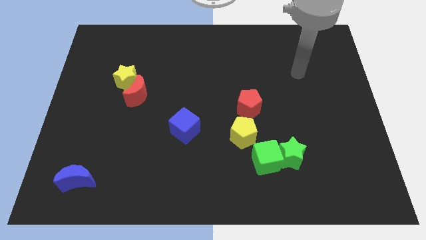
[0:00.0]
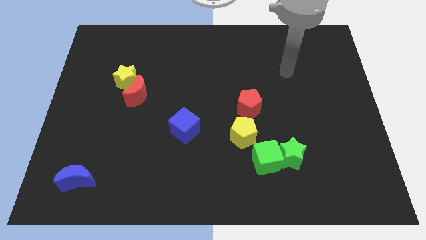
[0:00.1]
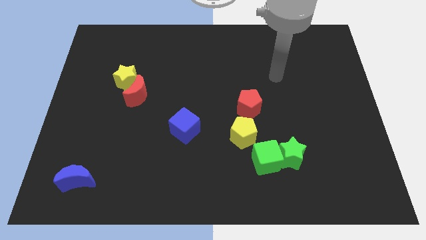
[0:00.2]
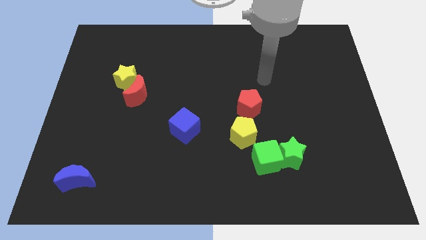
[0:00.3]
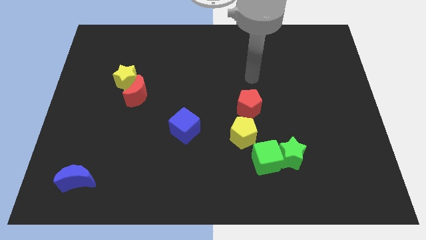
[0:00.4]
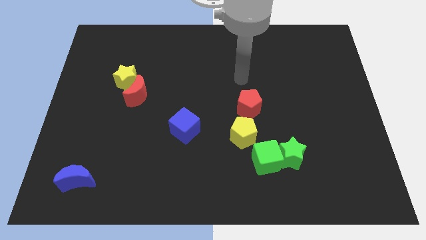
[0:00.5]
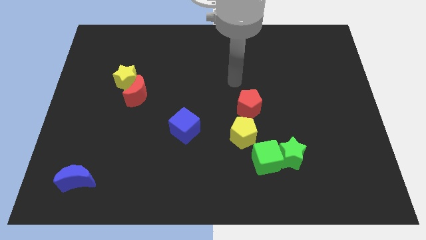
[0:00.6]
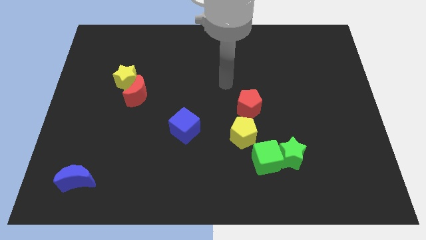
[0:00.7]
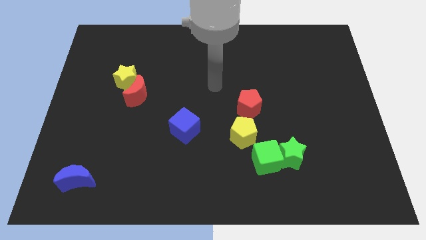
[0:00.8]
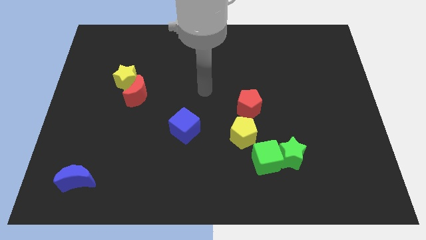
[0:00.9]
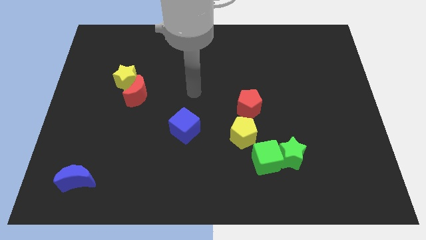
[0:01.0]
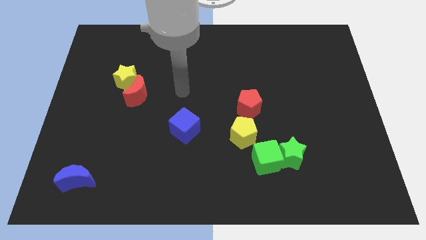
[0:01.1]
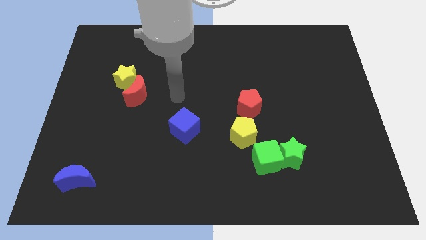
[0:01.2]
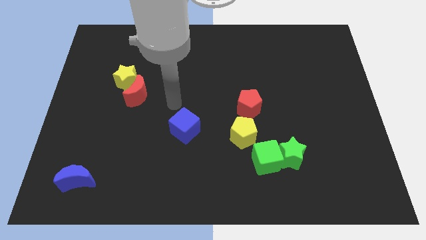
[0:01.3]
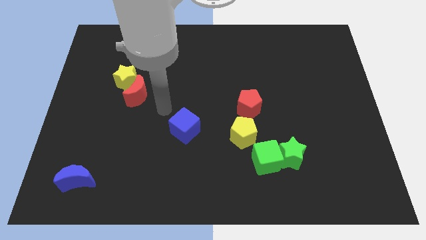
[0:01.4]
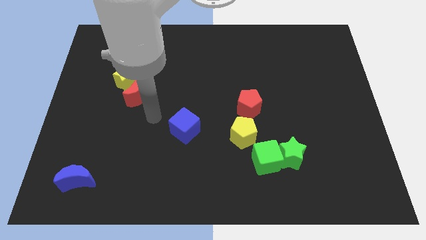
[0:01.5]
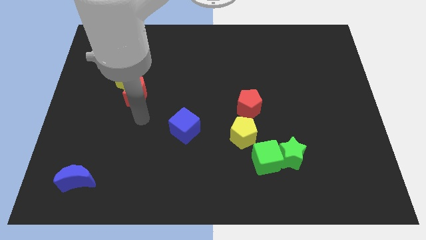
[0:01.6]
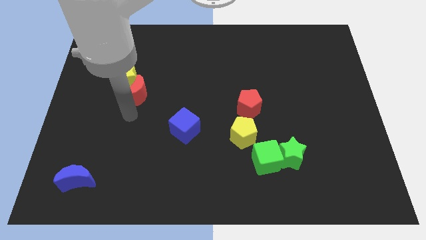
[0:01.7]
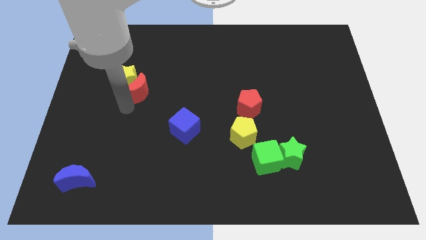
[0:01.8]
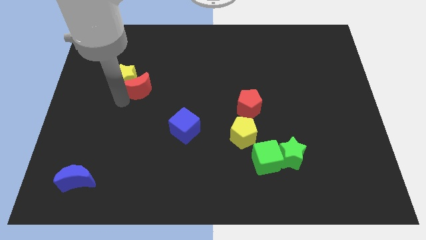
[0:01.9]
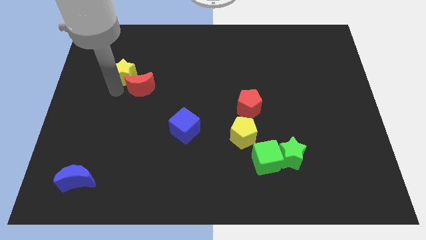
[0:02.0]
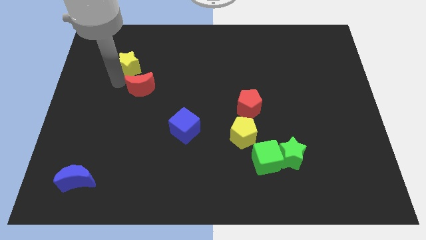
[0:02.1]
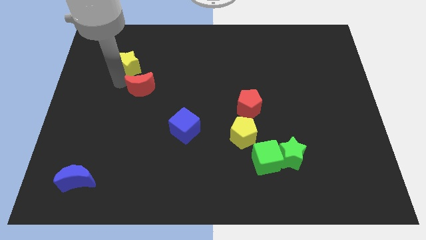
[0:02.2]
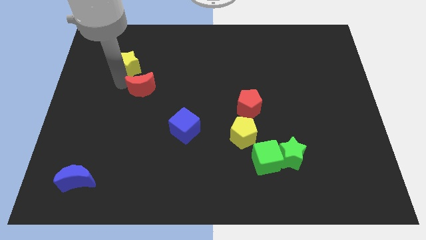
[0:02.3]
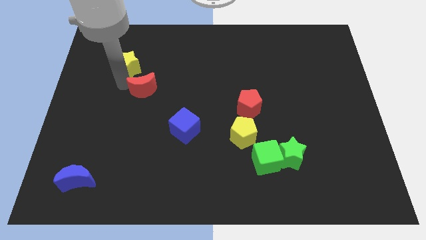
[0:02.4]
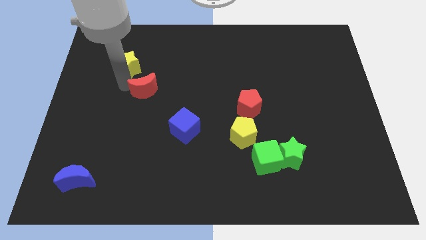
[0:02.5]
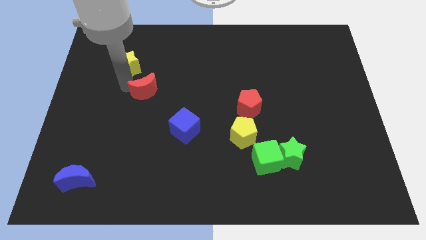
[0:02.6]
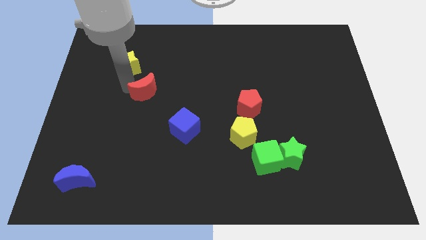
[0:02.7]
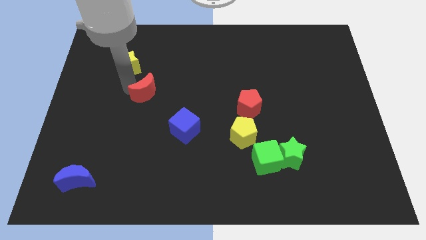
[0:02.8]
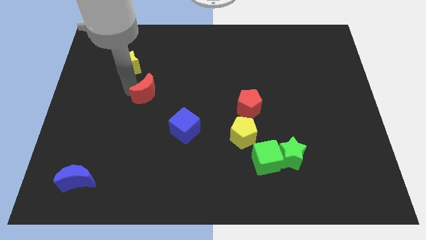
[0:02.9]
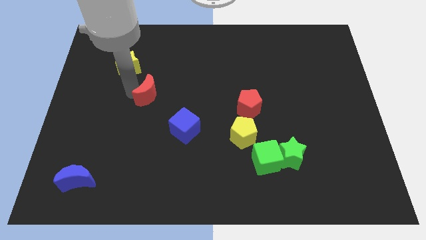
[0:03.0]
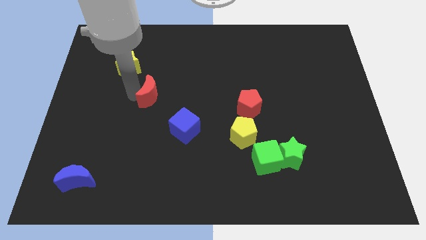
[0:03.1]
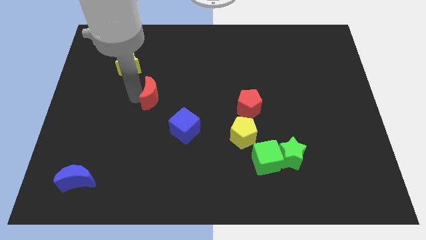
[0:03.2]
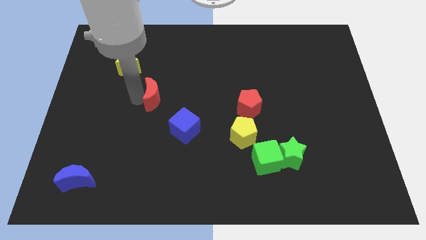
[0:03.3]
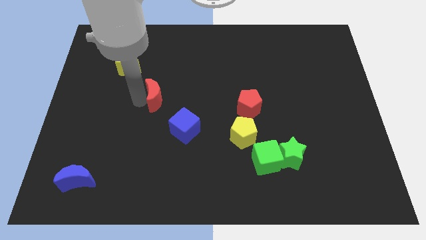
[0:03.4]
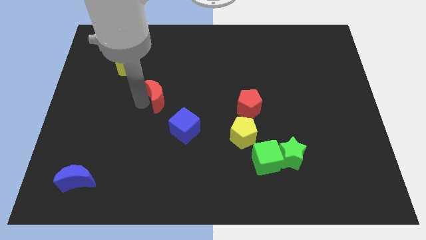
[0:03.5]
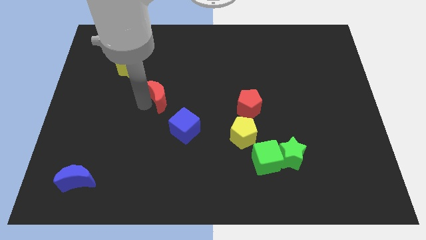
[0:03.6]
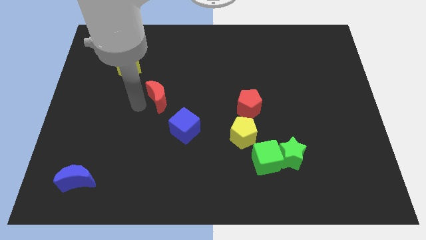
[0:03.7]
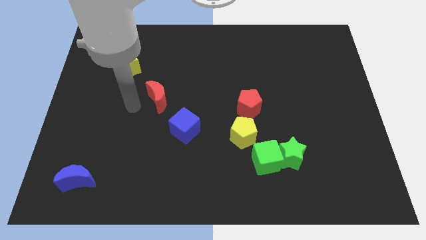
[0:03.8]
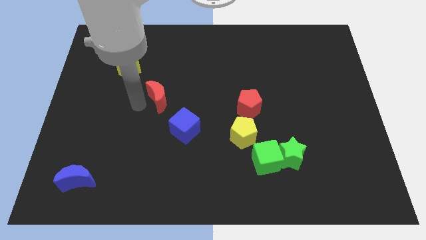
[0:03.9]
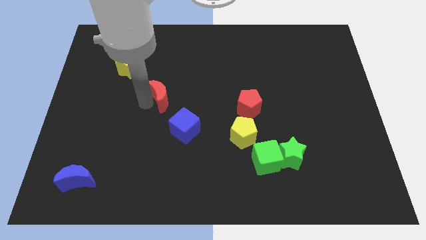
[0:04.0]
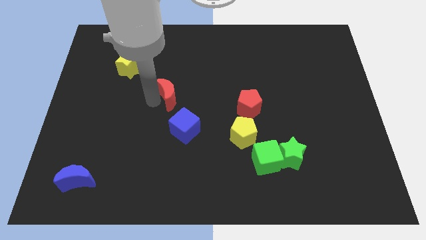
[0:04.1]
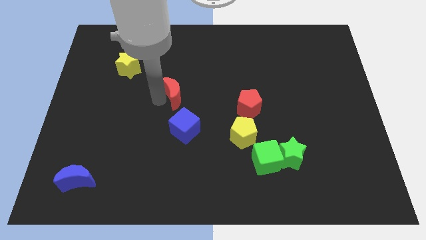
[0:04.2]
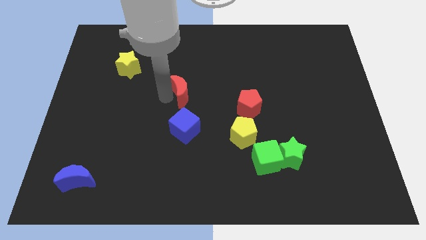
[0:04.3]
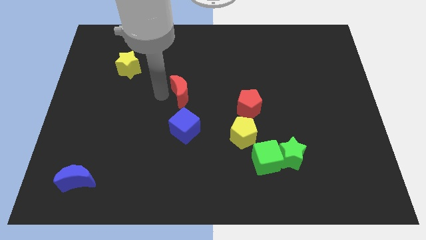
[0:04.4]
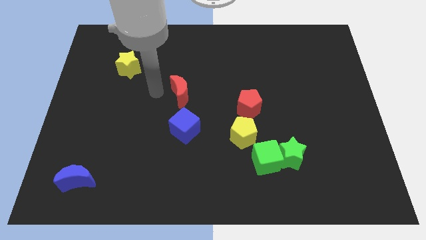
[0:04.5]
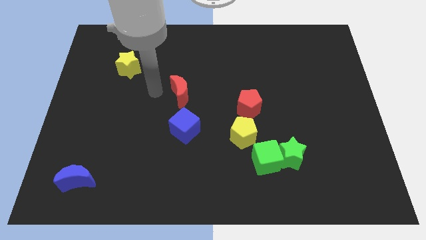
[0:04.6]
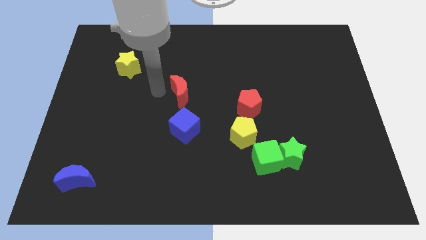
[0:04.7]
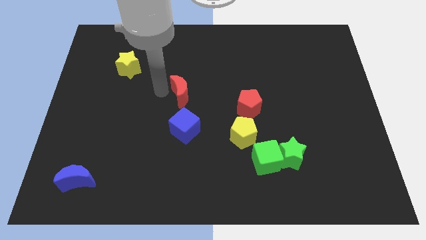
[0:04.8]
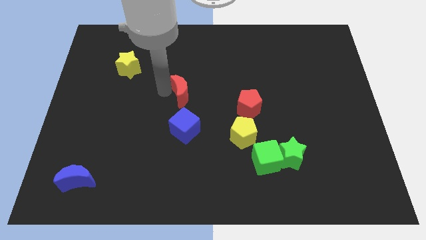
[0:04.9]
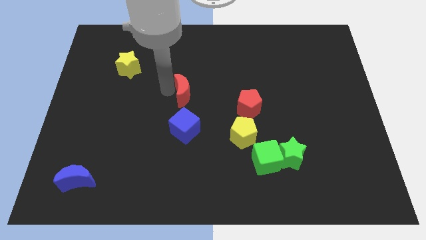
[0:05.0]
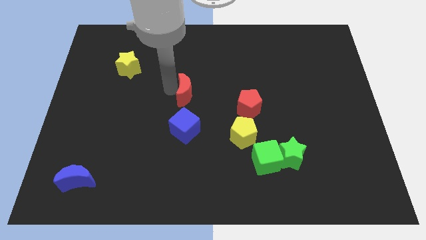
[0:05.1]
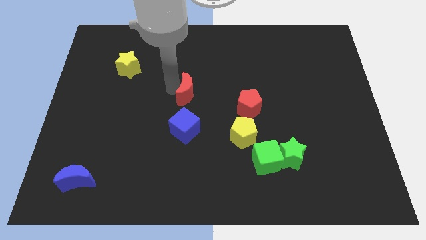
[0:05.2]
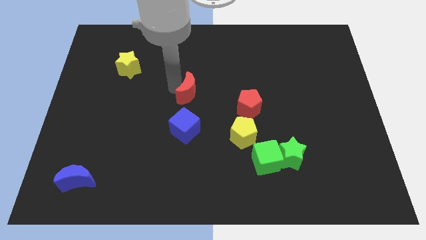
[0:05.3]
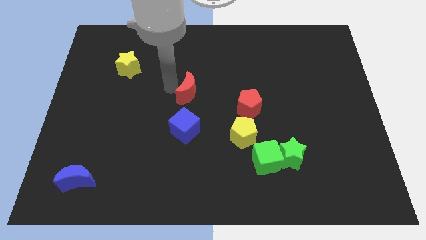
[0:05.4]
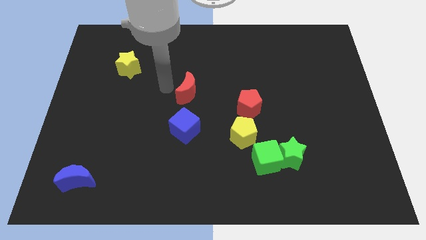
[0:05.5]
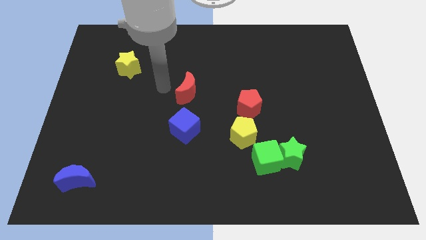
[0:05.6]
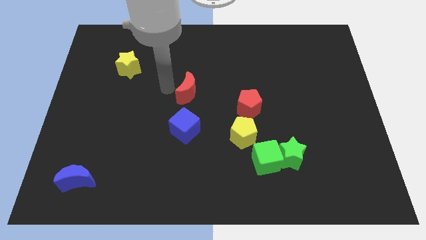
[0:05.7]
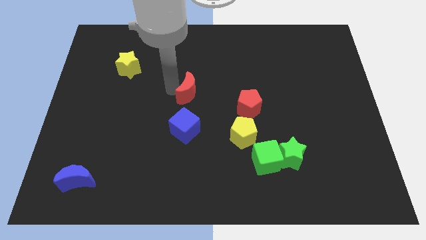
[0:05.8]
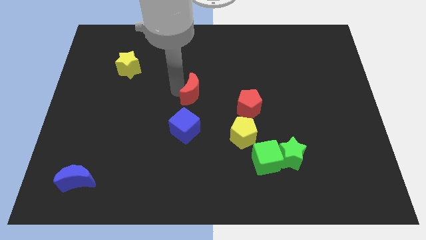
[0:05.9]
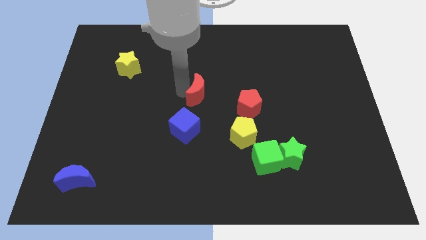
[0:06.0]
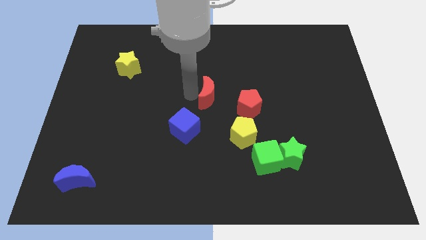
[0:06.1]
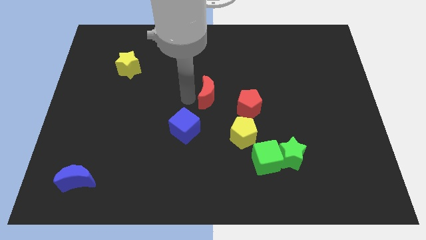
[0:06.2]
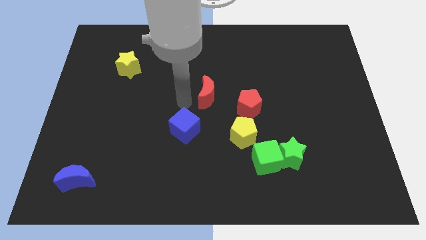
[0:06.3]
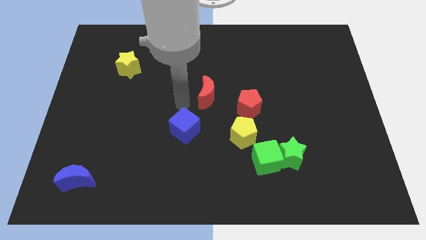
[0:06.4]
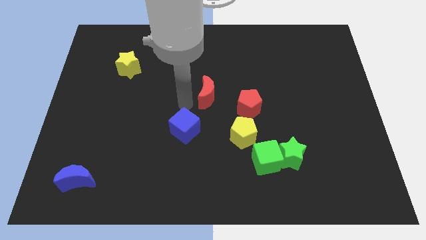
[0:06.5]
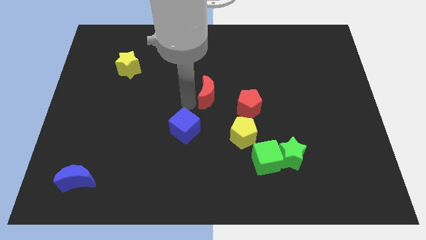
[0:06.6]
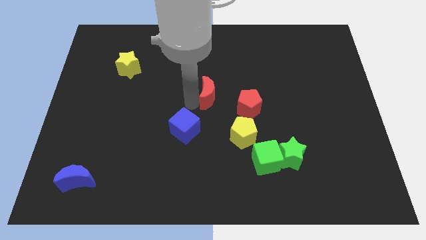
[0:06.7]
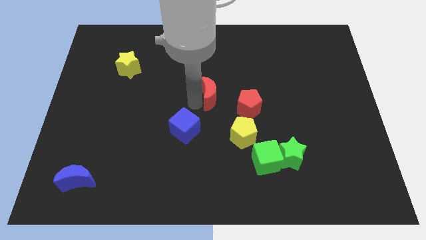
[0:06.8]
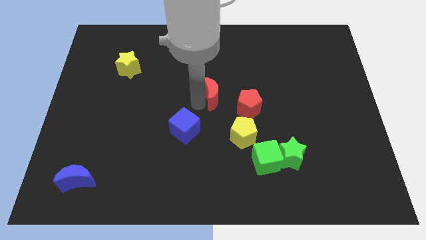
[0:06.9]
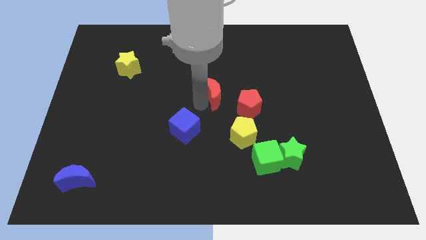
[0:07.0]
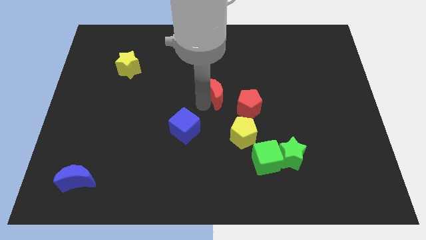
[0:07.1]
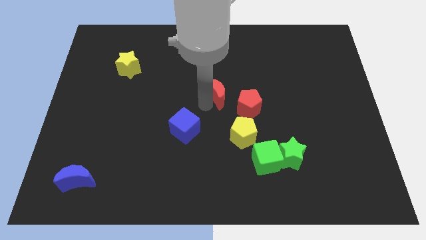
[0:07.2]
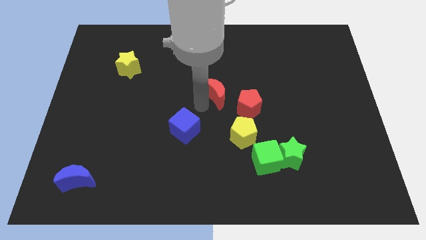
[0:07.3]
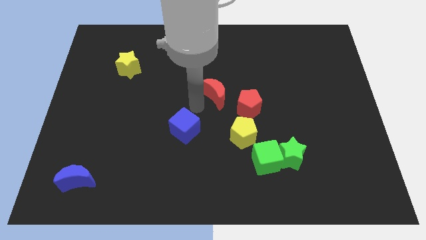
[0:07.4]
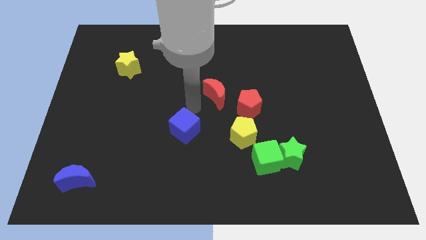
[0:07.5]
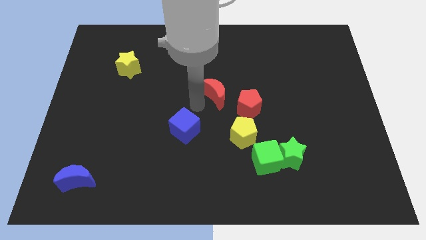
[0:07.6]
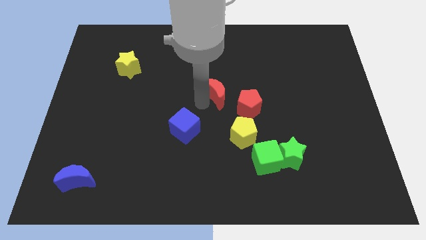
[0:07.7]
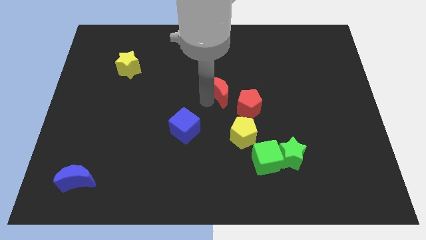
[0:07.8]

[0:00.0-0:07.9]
push the red moon right
